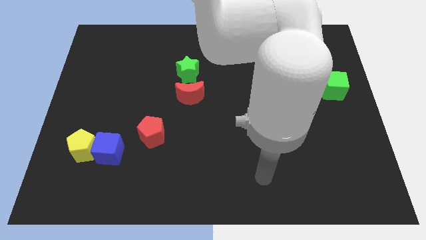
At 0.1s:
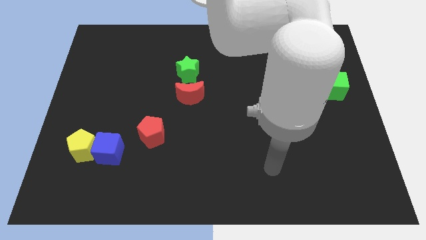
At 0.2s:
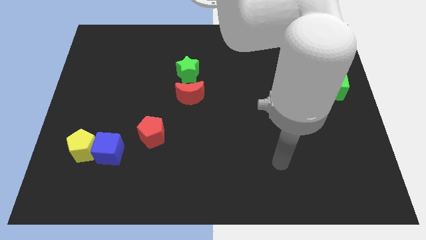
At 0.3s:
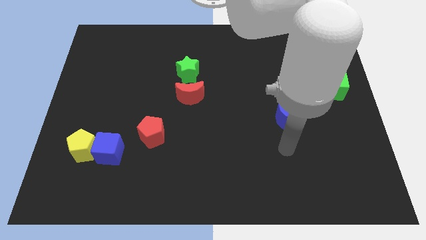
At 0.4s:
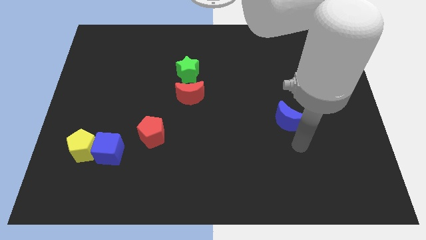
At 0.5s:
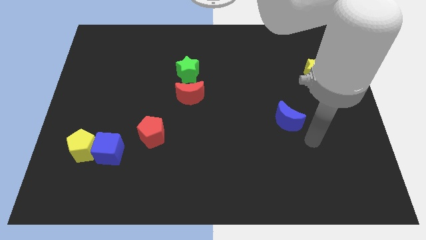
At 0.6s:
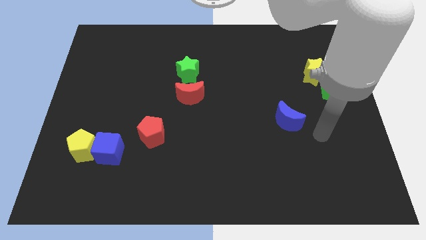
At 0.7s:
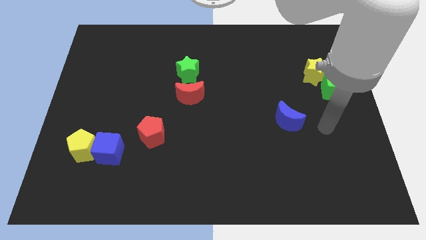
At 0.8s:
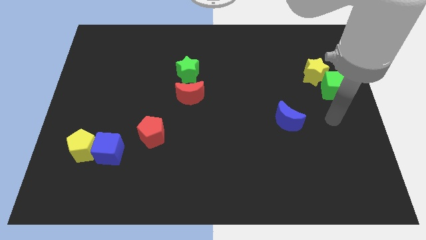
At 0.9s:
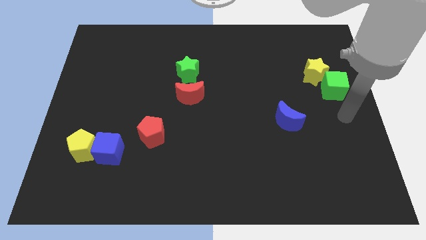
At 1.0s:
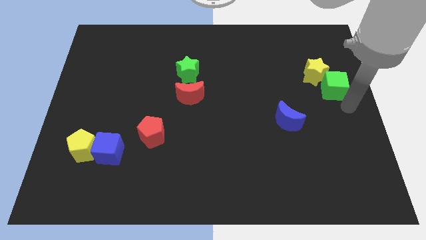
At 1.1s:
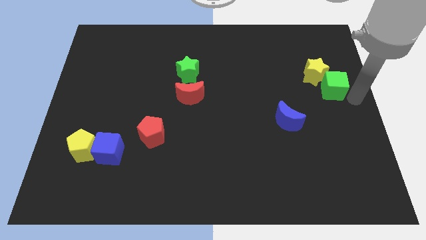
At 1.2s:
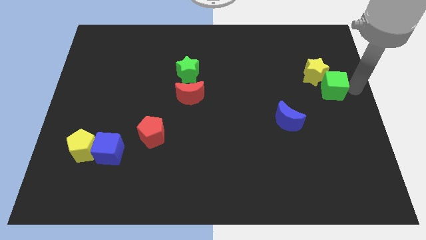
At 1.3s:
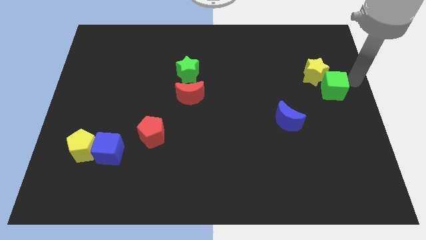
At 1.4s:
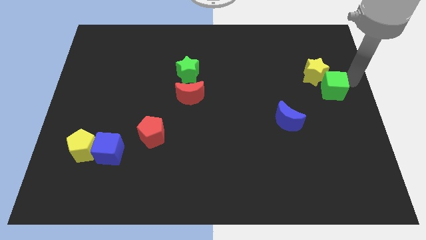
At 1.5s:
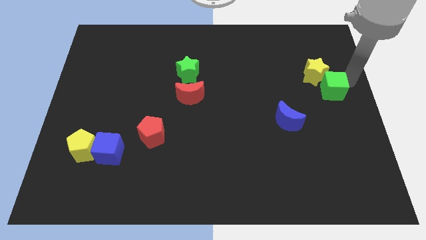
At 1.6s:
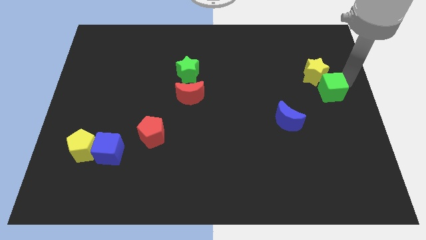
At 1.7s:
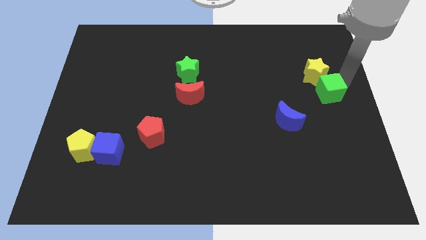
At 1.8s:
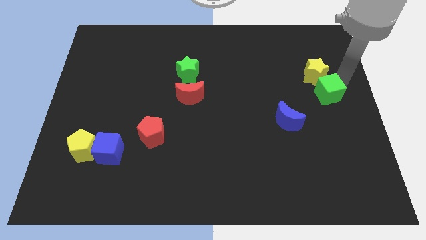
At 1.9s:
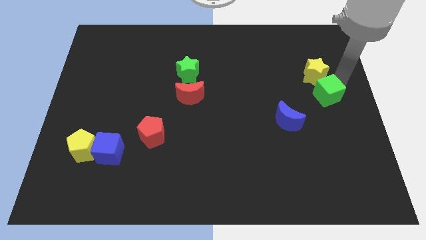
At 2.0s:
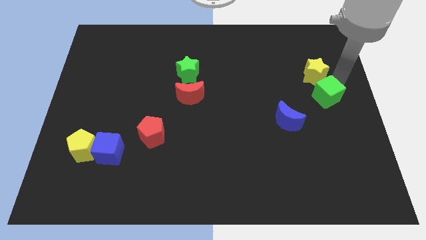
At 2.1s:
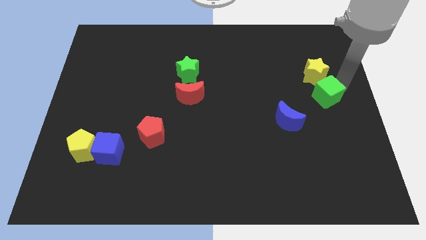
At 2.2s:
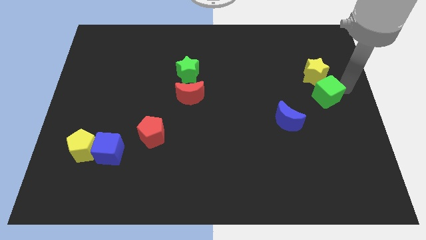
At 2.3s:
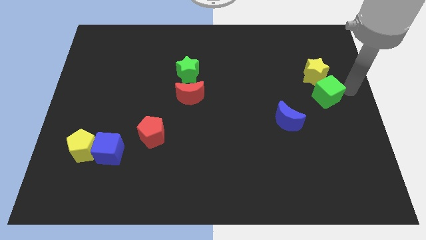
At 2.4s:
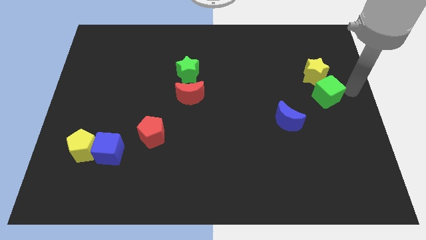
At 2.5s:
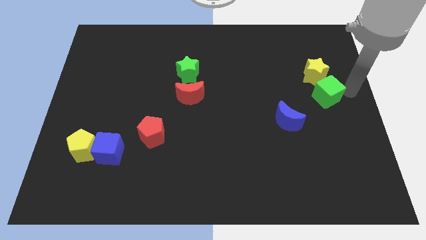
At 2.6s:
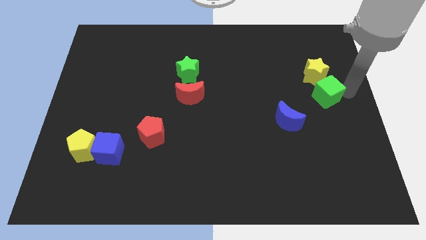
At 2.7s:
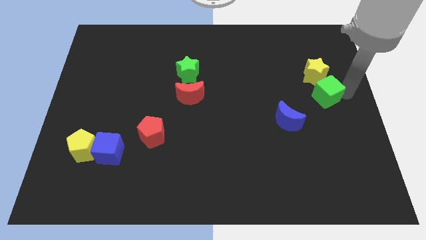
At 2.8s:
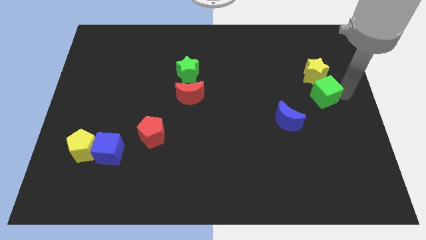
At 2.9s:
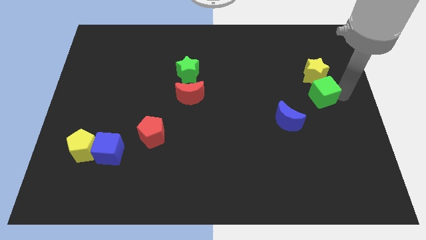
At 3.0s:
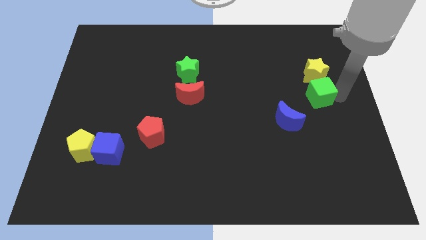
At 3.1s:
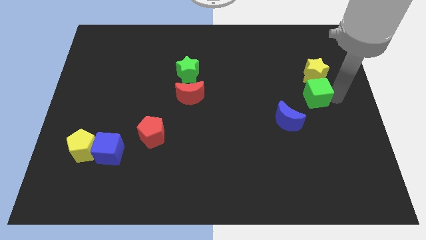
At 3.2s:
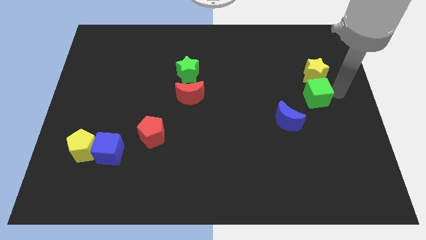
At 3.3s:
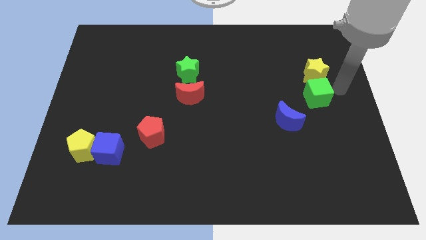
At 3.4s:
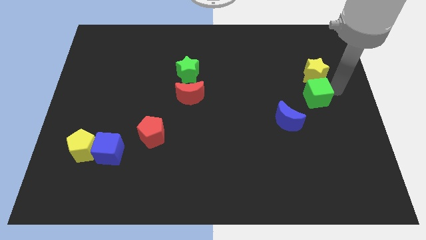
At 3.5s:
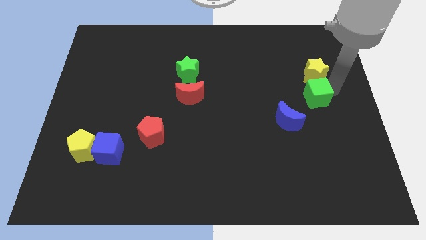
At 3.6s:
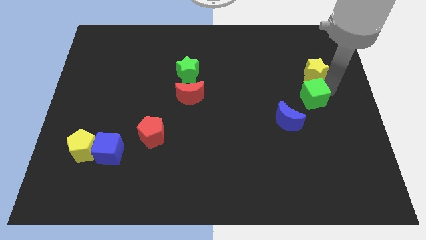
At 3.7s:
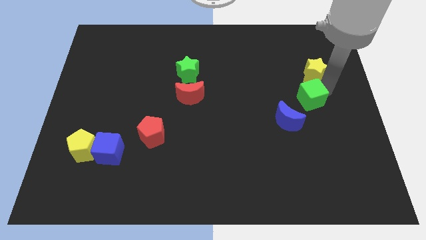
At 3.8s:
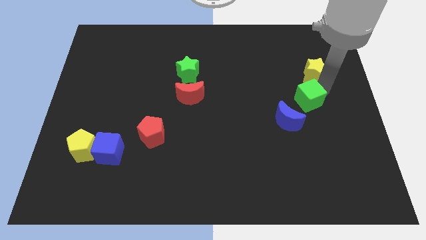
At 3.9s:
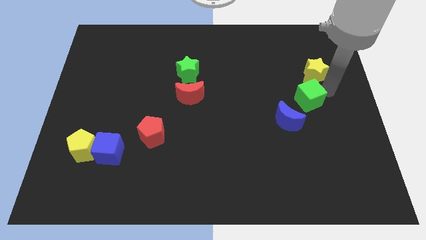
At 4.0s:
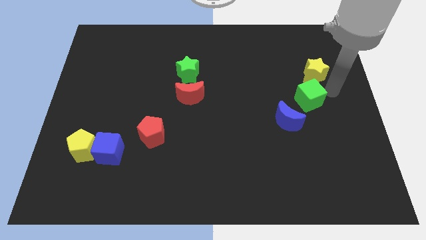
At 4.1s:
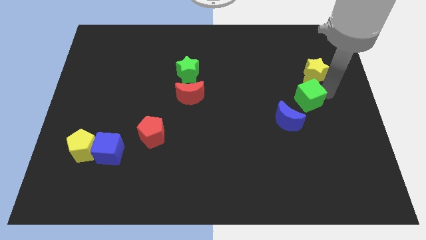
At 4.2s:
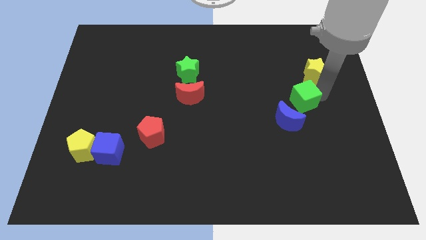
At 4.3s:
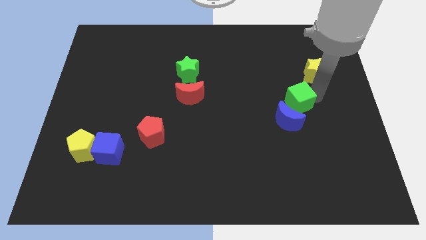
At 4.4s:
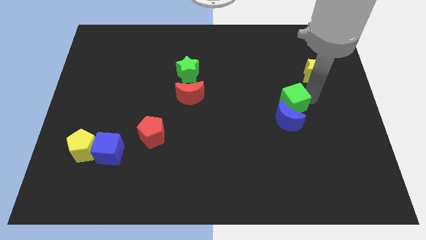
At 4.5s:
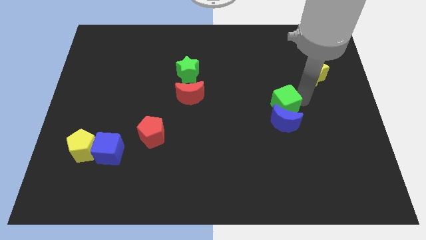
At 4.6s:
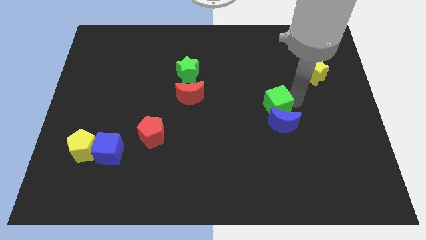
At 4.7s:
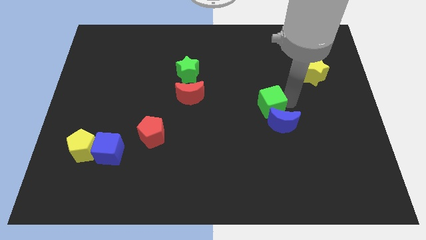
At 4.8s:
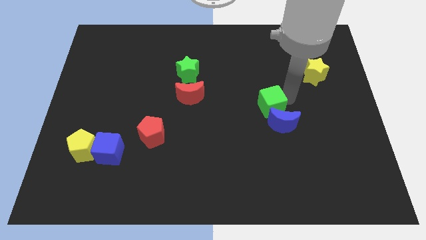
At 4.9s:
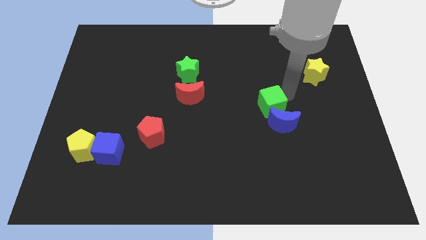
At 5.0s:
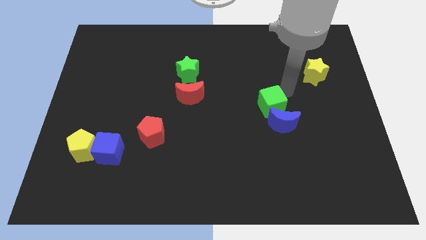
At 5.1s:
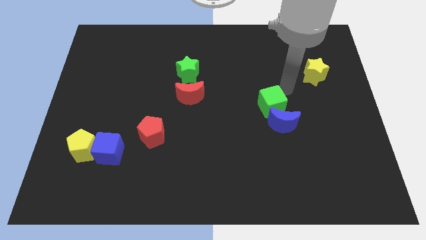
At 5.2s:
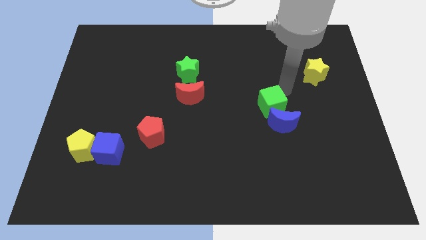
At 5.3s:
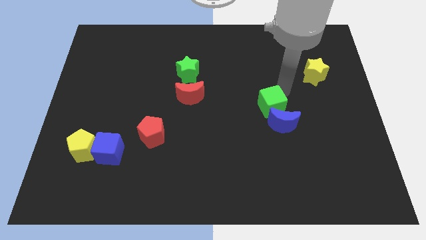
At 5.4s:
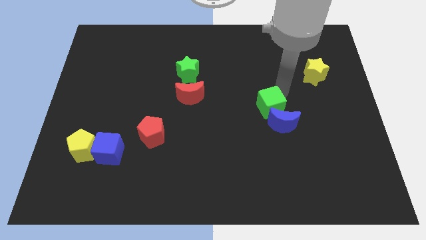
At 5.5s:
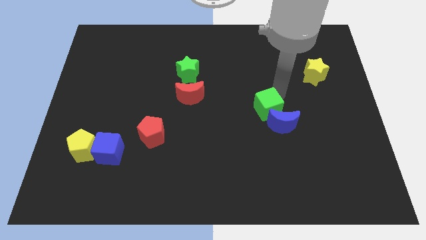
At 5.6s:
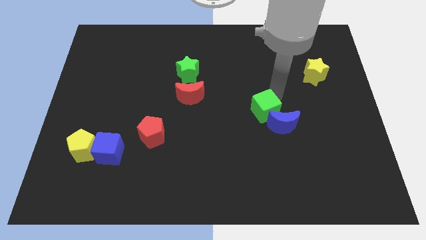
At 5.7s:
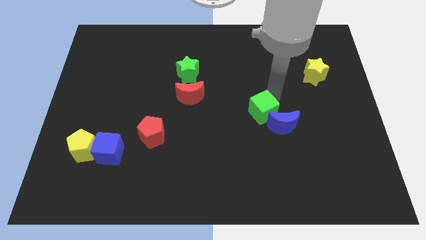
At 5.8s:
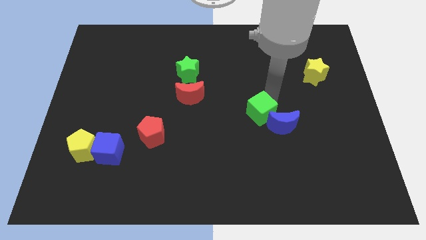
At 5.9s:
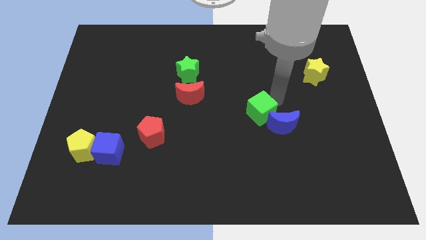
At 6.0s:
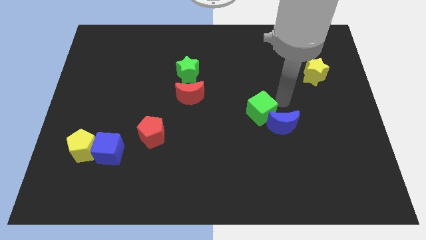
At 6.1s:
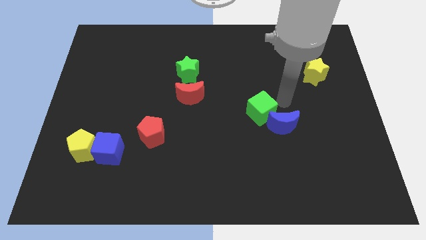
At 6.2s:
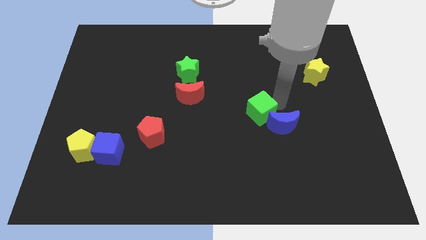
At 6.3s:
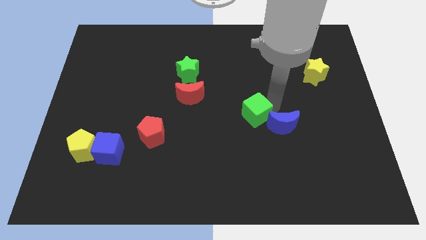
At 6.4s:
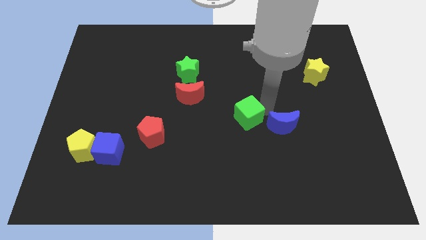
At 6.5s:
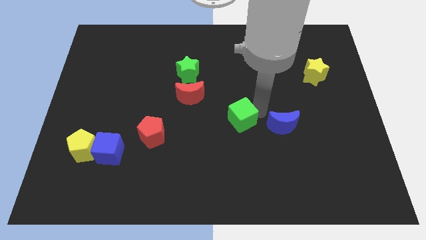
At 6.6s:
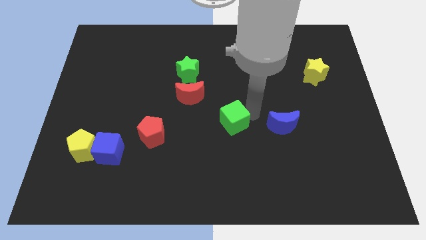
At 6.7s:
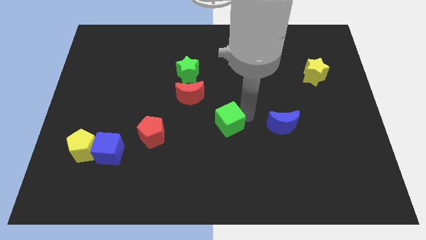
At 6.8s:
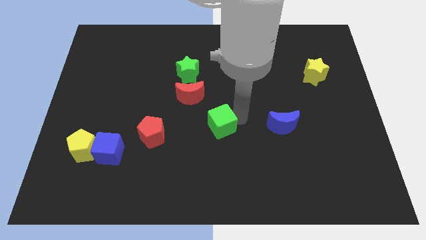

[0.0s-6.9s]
slide the green cube right of the red pentagon

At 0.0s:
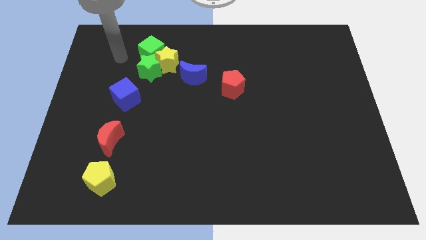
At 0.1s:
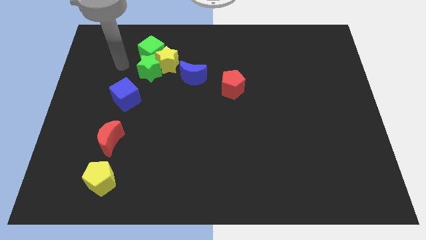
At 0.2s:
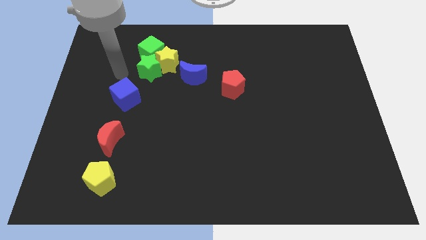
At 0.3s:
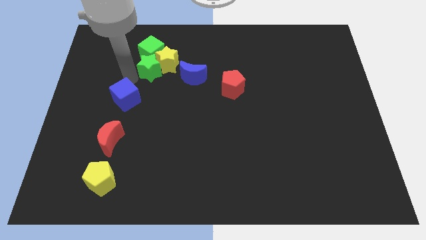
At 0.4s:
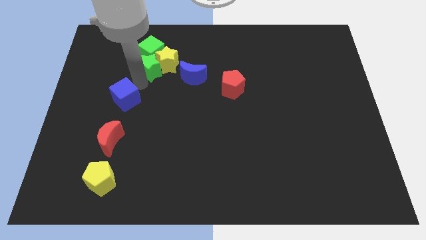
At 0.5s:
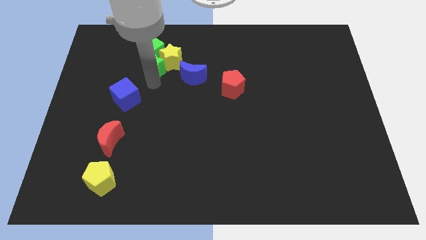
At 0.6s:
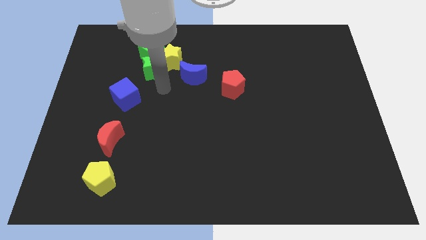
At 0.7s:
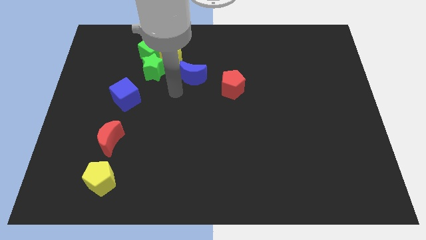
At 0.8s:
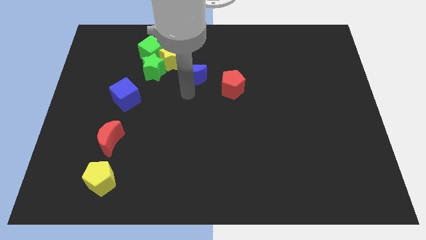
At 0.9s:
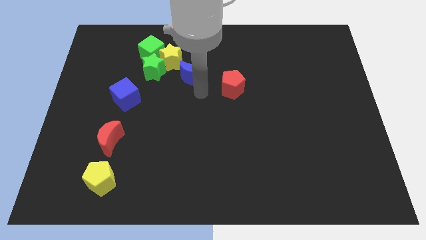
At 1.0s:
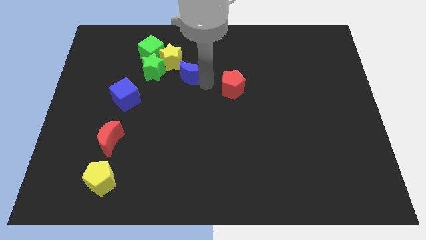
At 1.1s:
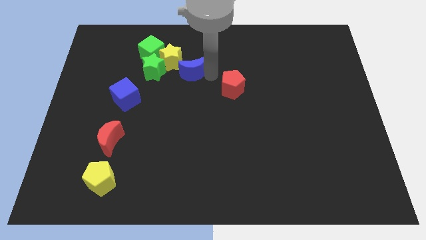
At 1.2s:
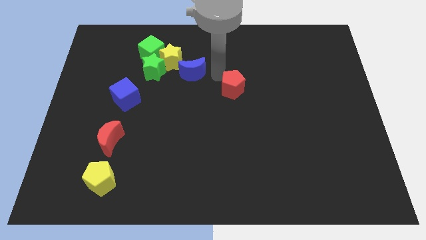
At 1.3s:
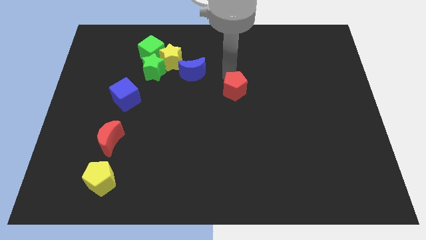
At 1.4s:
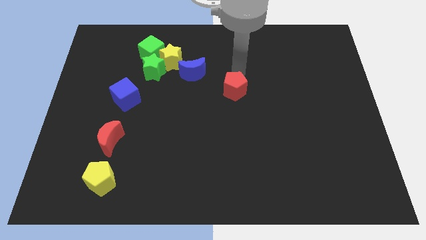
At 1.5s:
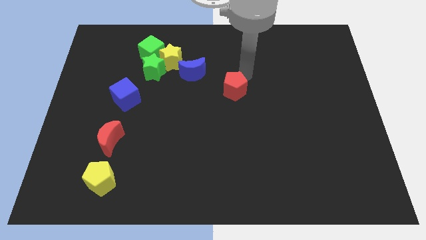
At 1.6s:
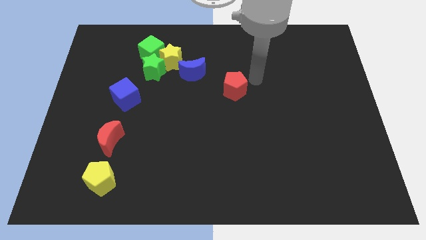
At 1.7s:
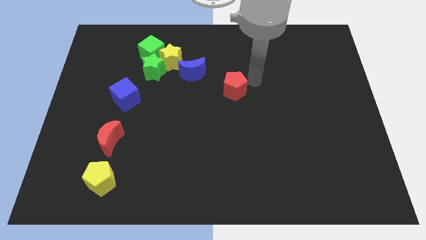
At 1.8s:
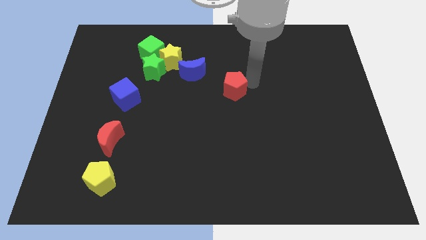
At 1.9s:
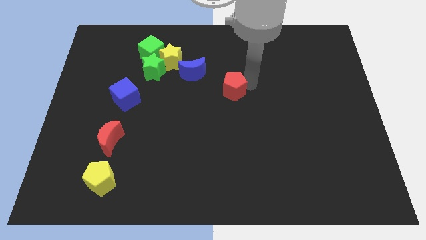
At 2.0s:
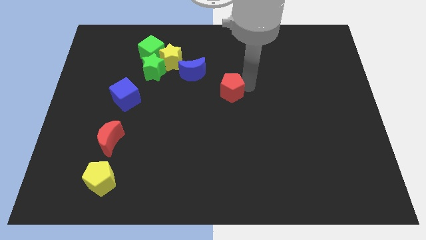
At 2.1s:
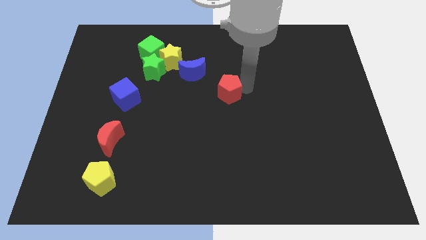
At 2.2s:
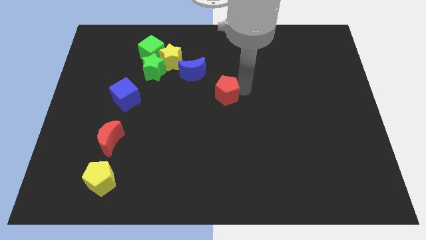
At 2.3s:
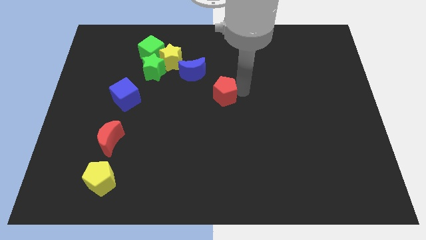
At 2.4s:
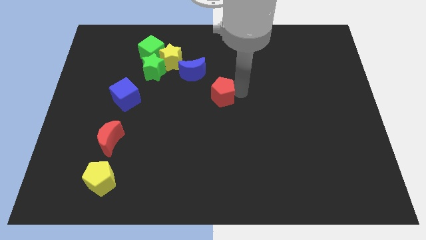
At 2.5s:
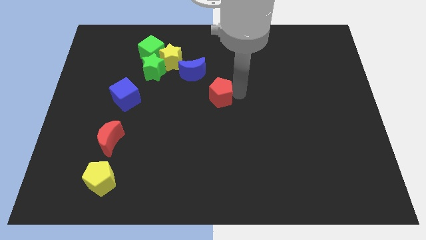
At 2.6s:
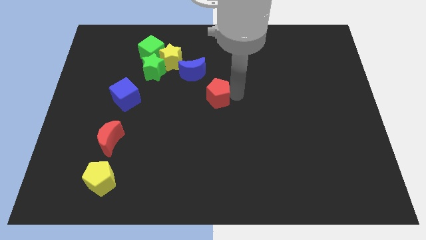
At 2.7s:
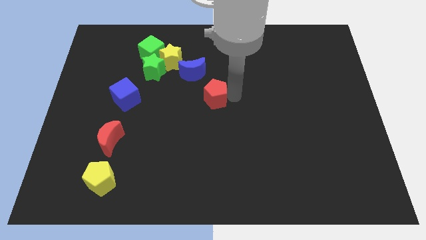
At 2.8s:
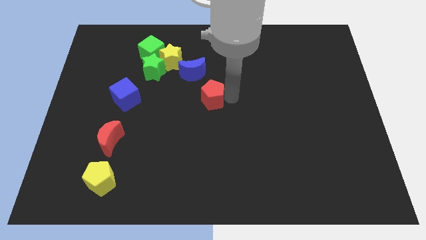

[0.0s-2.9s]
put the red pentagon to the bottom side of the blue moon
